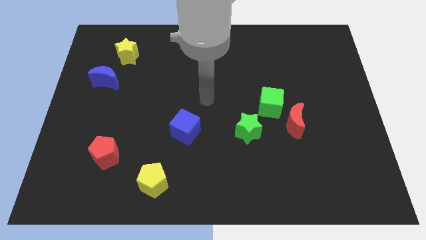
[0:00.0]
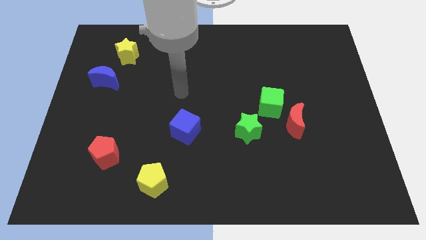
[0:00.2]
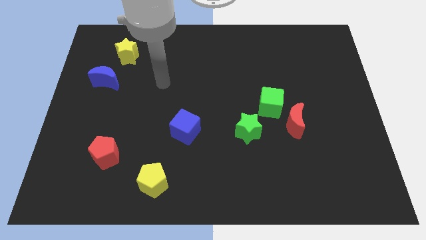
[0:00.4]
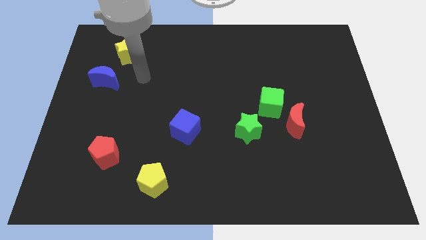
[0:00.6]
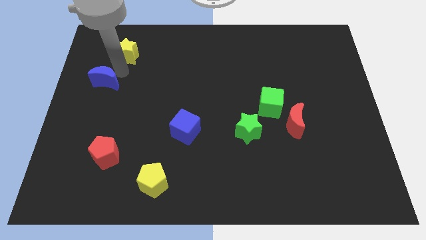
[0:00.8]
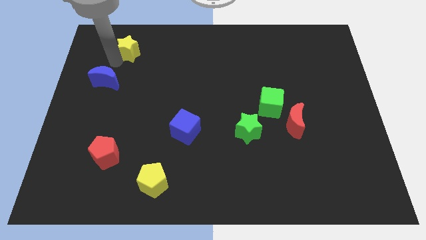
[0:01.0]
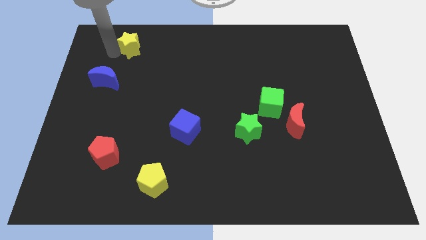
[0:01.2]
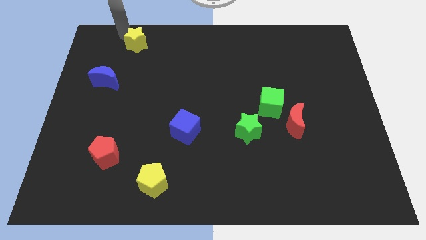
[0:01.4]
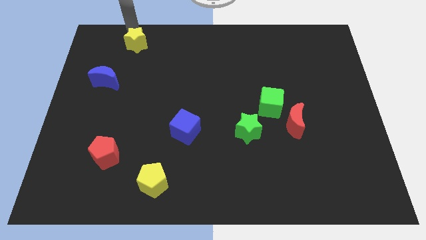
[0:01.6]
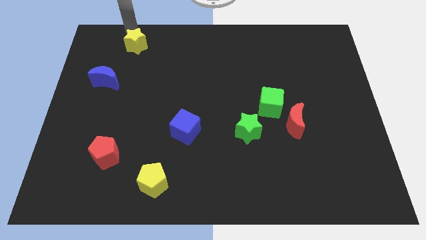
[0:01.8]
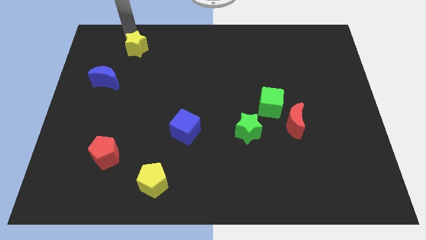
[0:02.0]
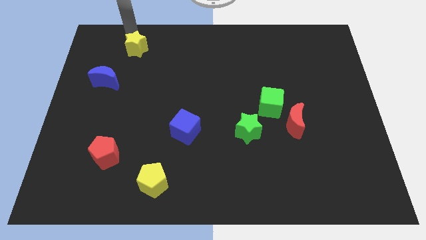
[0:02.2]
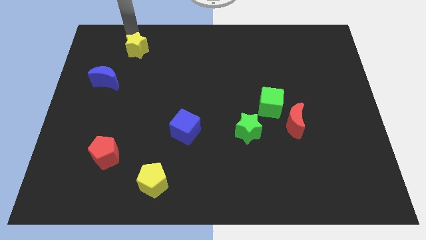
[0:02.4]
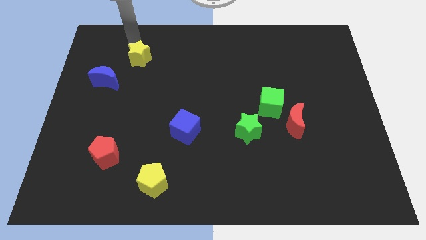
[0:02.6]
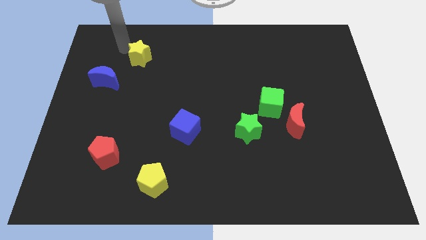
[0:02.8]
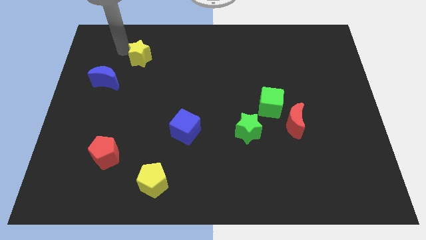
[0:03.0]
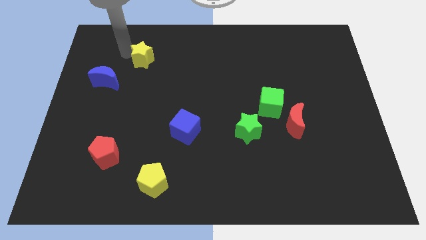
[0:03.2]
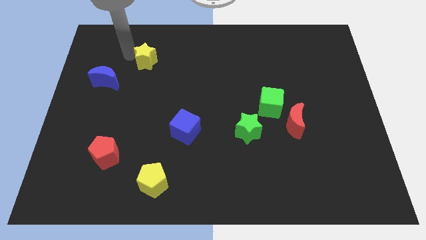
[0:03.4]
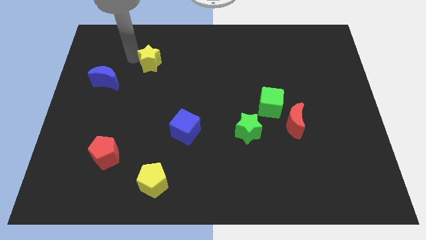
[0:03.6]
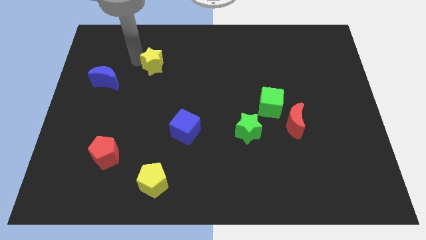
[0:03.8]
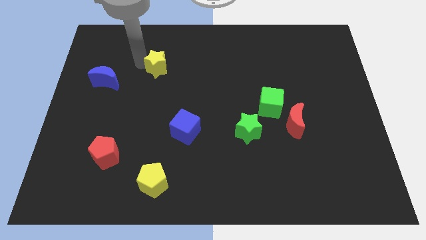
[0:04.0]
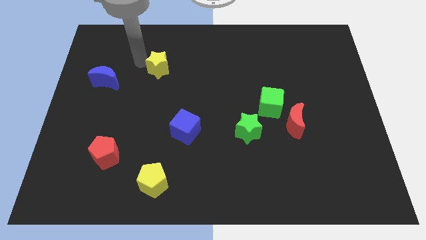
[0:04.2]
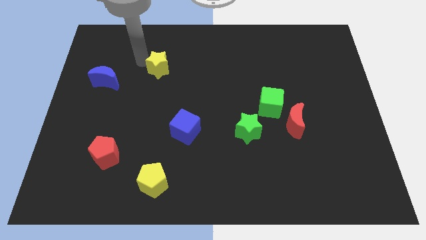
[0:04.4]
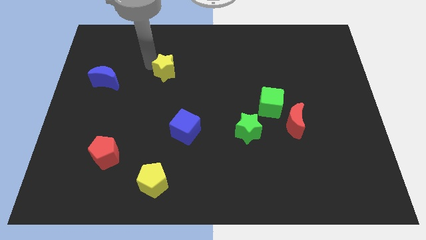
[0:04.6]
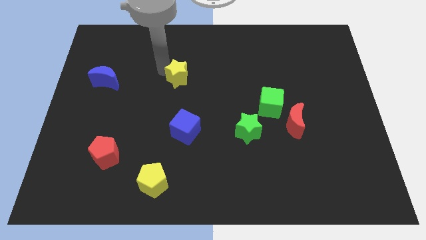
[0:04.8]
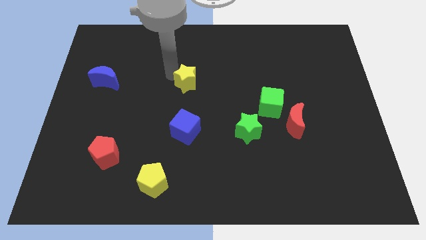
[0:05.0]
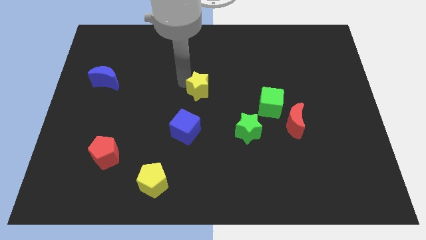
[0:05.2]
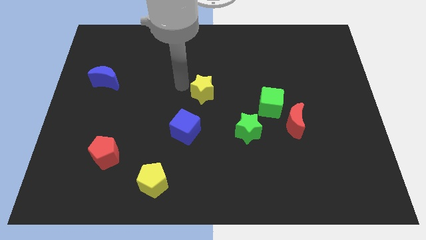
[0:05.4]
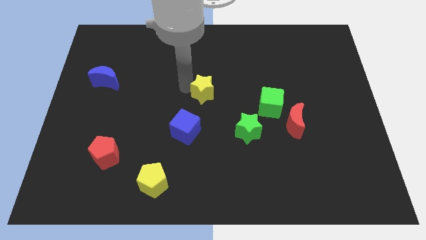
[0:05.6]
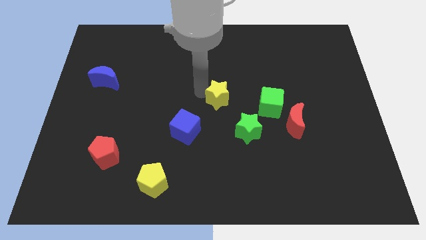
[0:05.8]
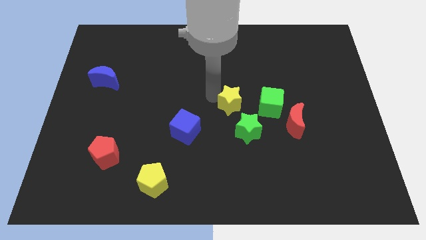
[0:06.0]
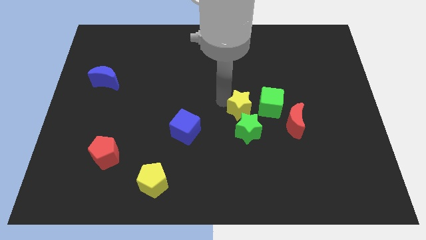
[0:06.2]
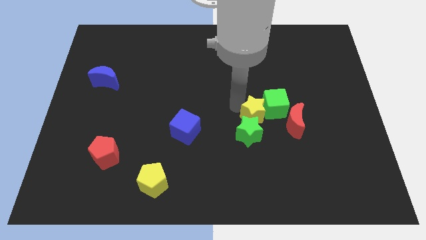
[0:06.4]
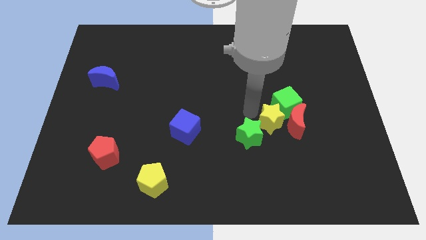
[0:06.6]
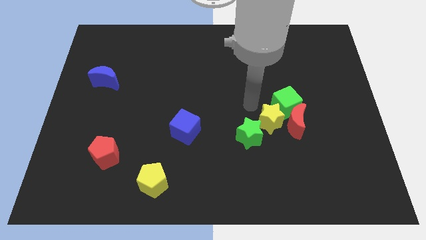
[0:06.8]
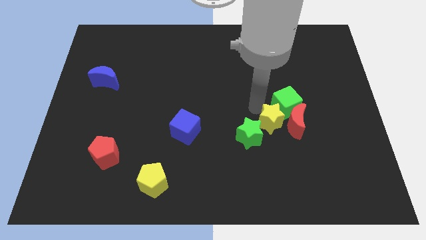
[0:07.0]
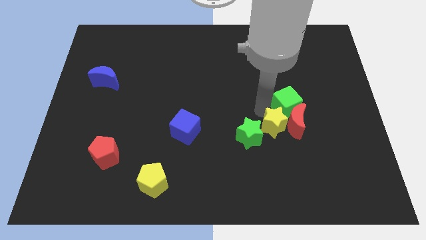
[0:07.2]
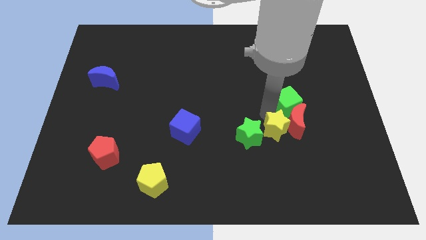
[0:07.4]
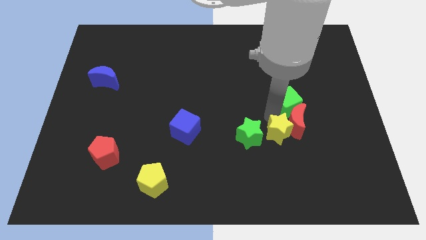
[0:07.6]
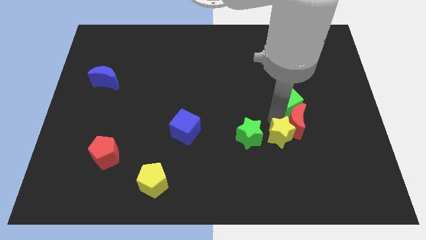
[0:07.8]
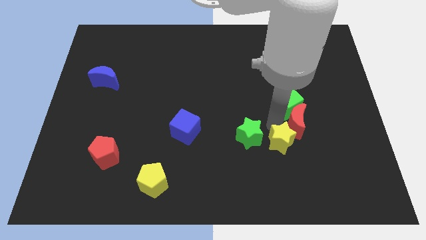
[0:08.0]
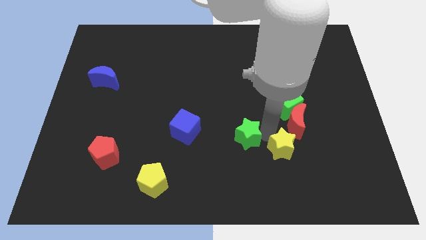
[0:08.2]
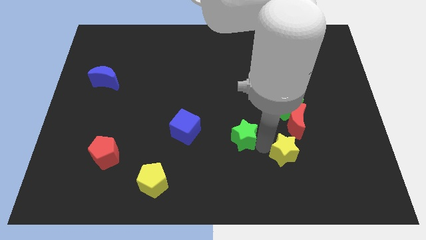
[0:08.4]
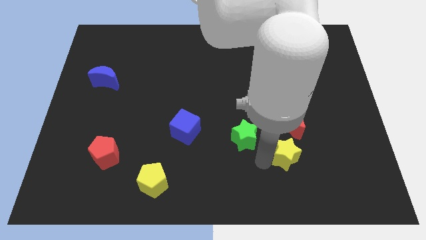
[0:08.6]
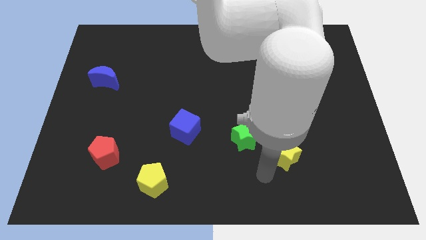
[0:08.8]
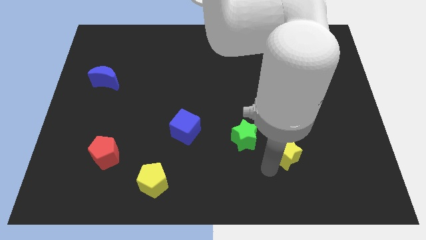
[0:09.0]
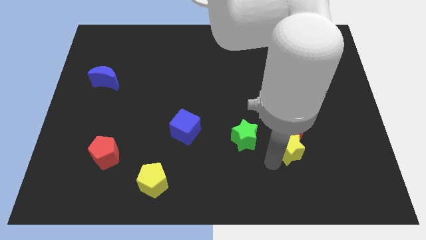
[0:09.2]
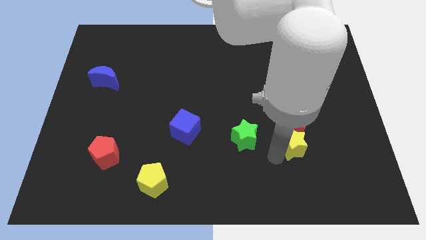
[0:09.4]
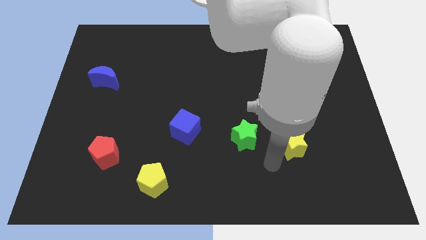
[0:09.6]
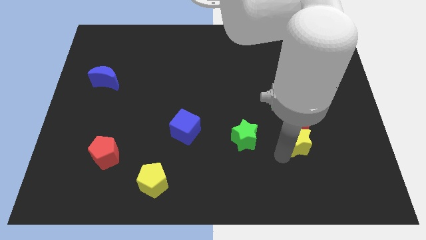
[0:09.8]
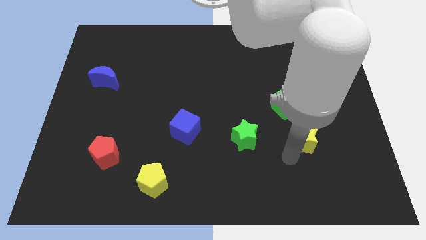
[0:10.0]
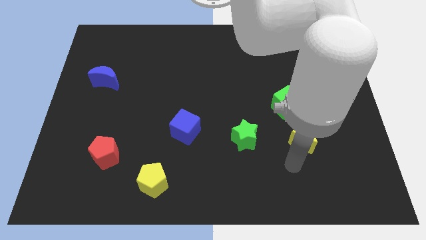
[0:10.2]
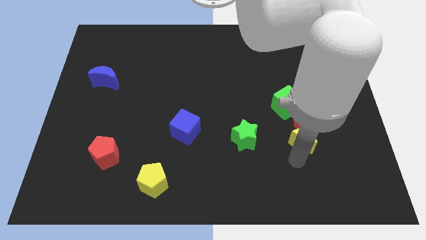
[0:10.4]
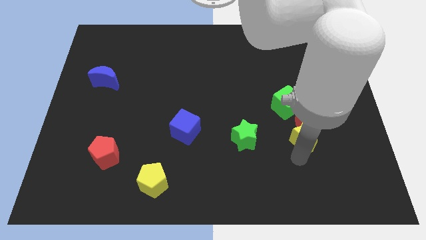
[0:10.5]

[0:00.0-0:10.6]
push the yellow star to the bottom right of the green cube

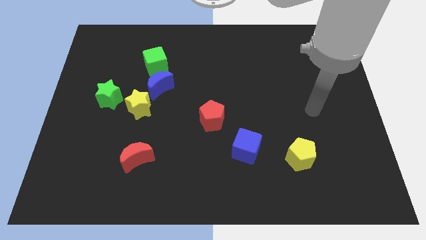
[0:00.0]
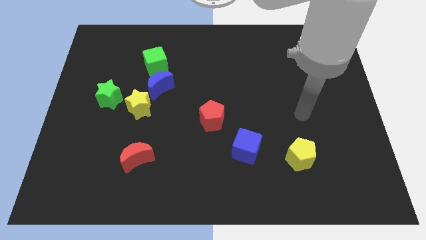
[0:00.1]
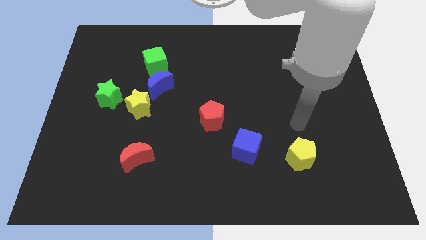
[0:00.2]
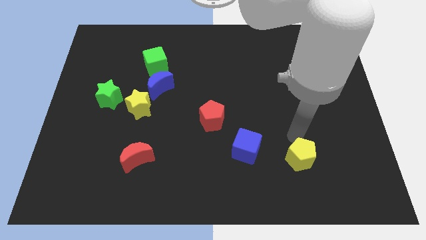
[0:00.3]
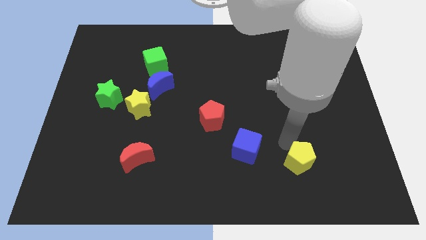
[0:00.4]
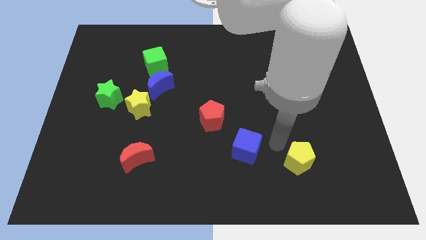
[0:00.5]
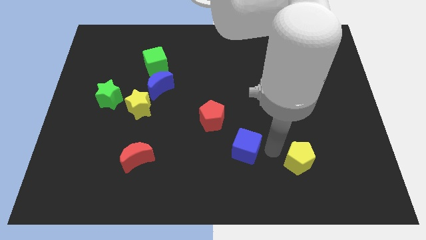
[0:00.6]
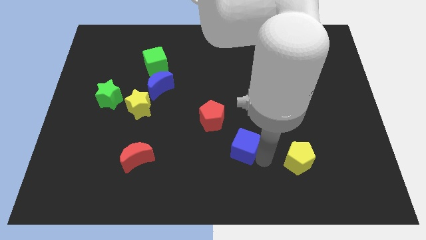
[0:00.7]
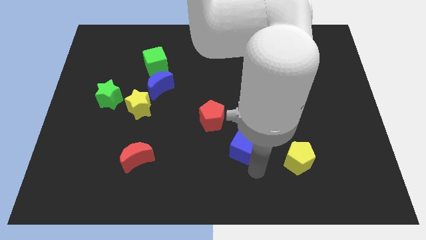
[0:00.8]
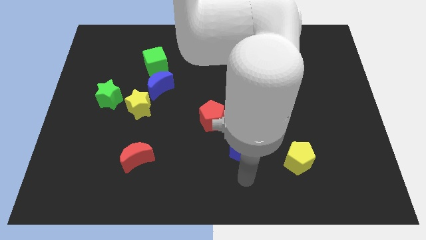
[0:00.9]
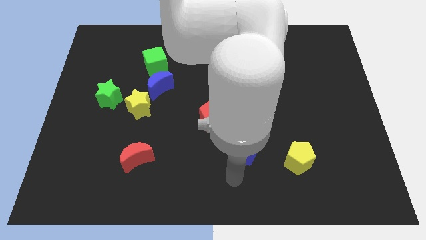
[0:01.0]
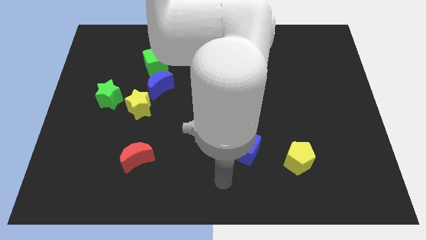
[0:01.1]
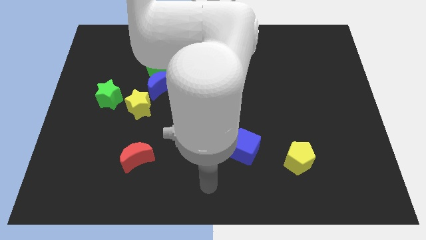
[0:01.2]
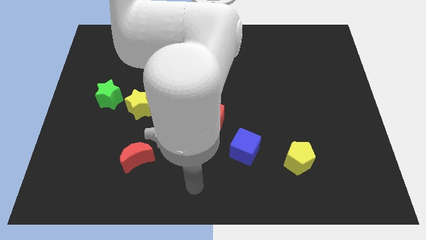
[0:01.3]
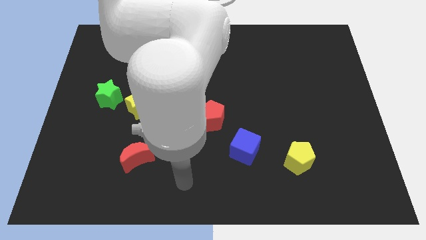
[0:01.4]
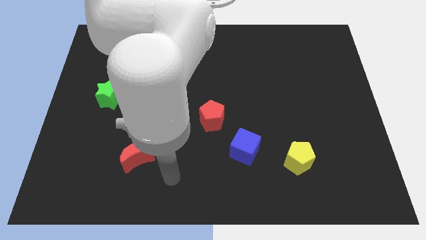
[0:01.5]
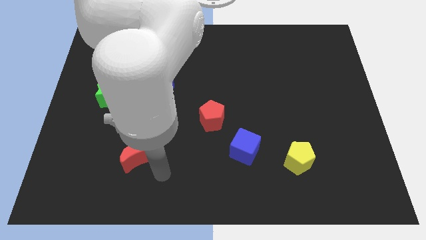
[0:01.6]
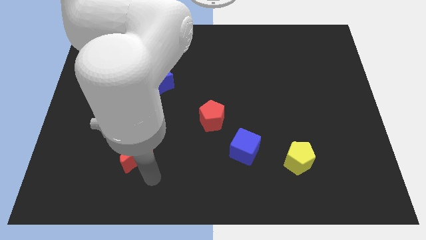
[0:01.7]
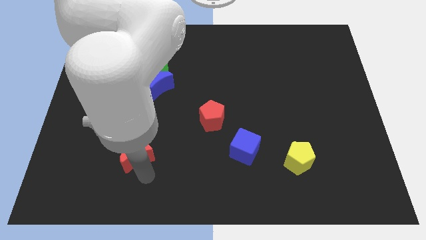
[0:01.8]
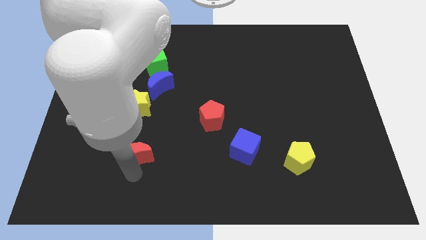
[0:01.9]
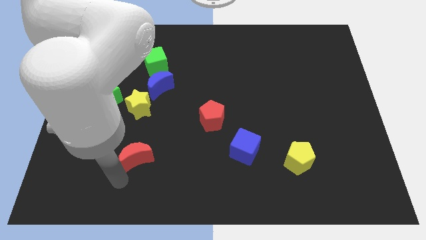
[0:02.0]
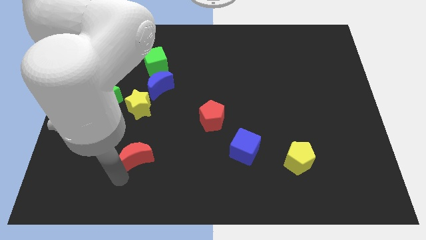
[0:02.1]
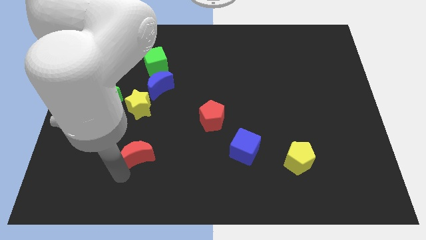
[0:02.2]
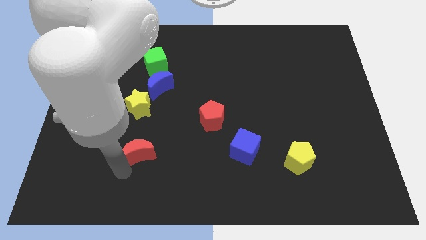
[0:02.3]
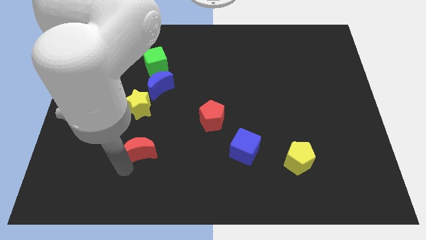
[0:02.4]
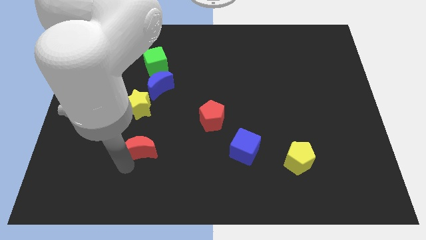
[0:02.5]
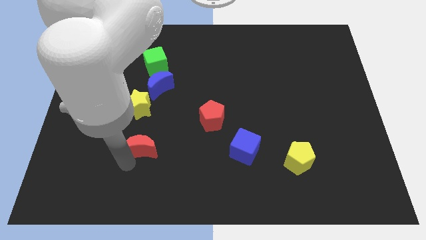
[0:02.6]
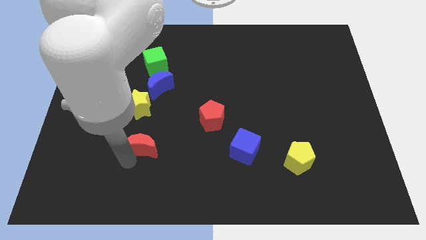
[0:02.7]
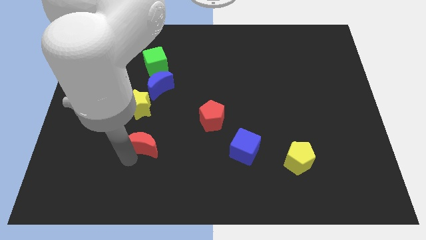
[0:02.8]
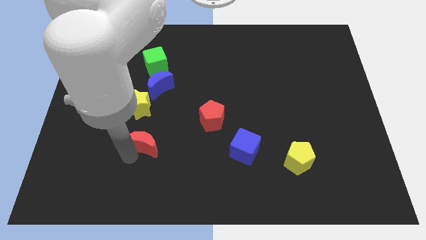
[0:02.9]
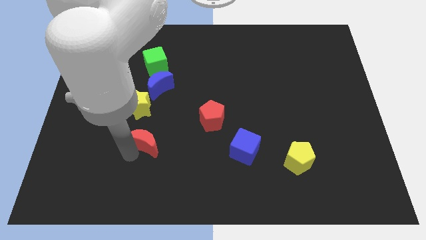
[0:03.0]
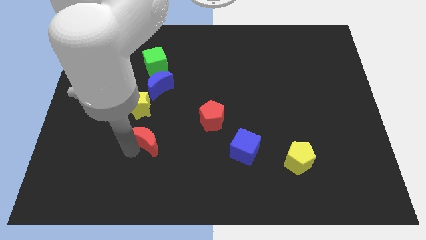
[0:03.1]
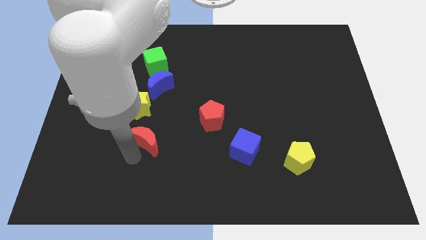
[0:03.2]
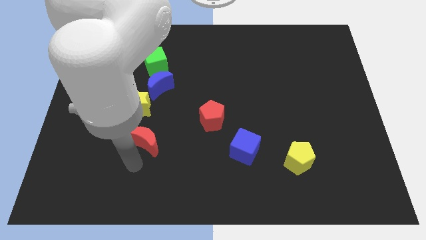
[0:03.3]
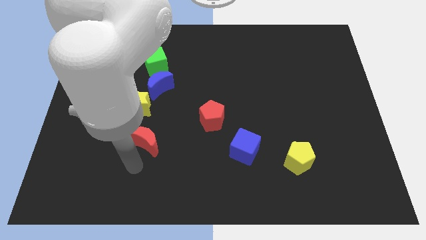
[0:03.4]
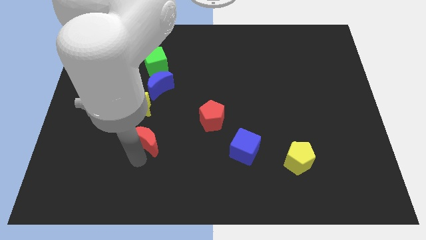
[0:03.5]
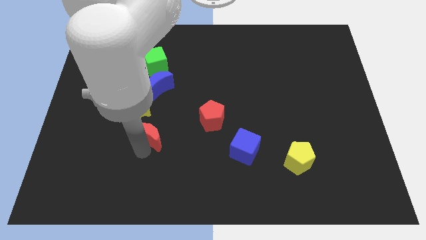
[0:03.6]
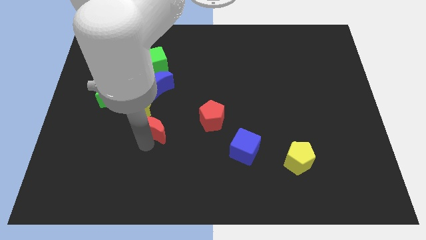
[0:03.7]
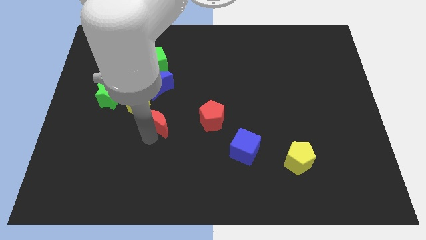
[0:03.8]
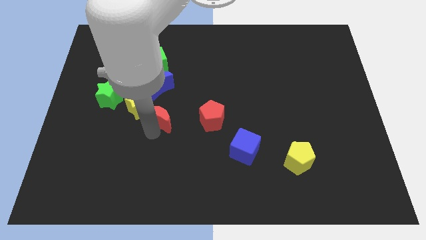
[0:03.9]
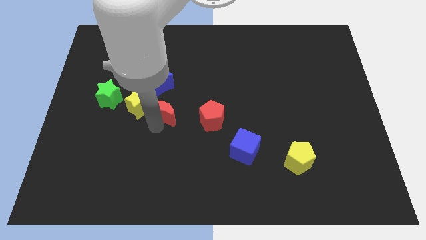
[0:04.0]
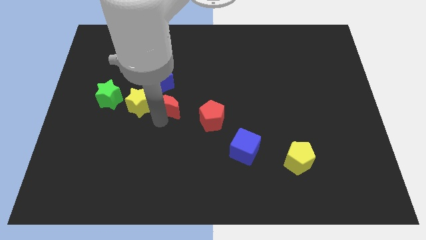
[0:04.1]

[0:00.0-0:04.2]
move the red moon to the right side of the green star
